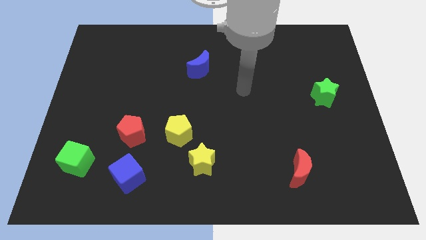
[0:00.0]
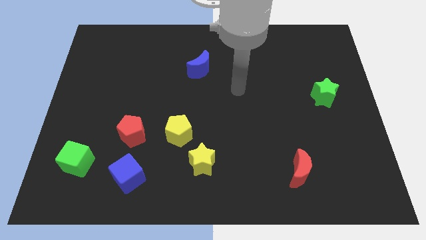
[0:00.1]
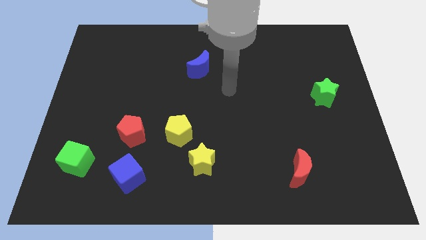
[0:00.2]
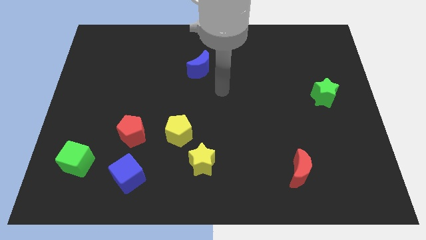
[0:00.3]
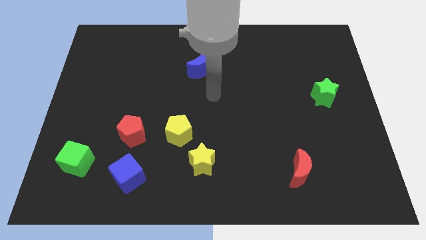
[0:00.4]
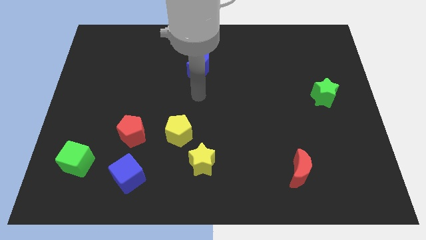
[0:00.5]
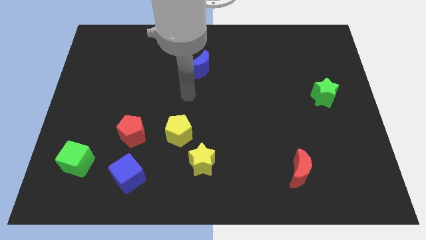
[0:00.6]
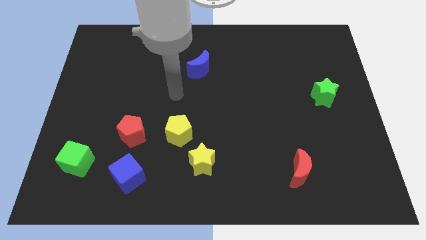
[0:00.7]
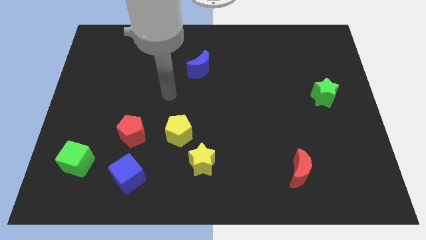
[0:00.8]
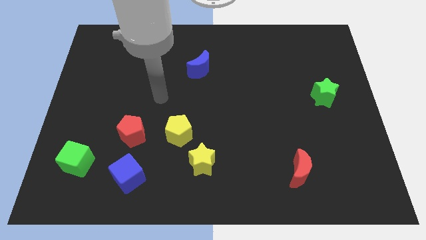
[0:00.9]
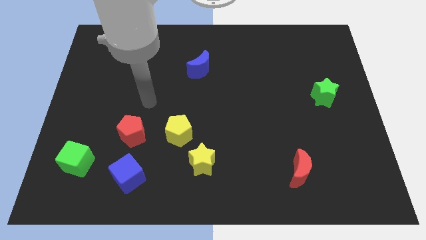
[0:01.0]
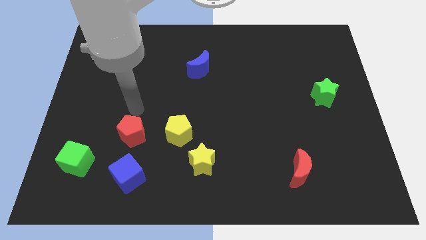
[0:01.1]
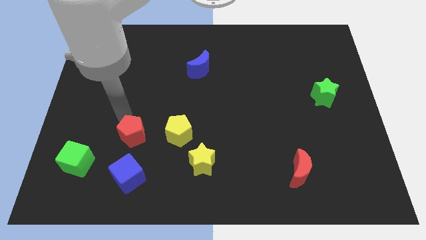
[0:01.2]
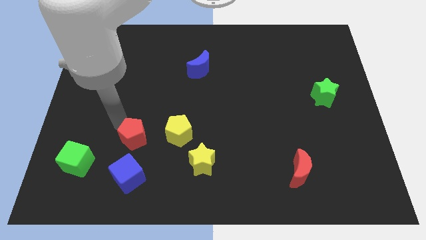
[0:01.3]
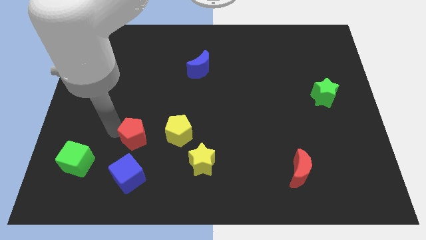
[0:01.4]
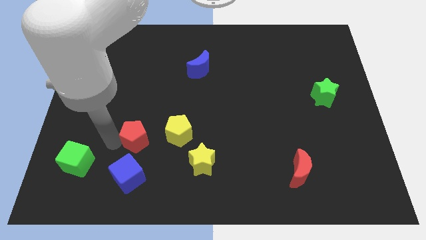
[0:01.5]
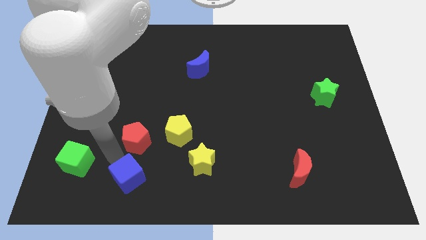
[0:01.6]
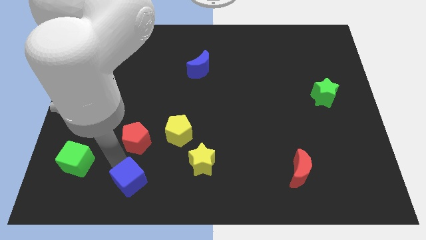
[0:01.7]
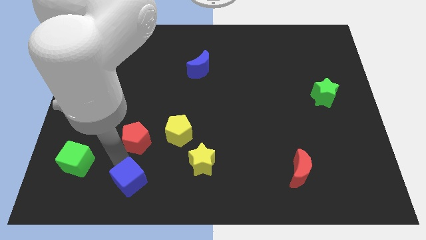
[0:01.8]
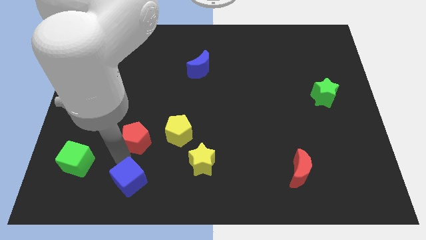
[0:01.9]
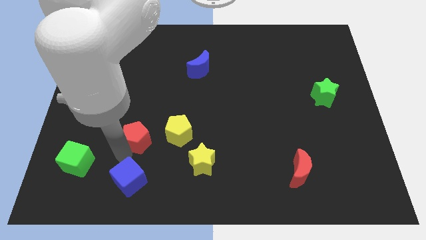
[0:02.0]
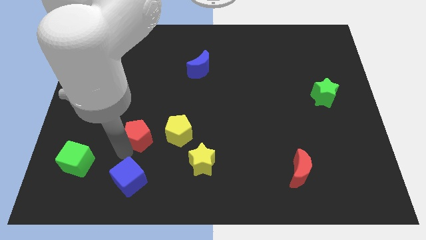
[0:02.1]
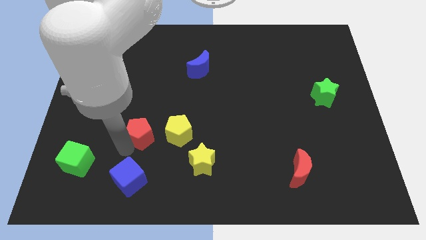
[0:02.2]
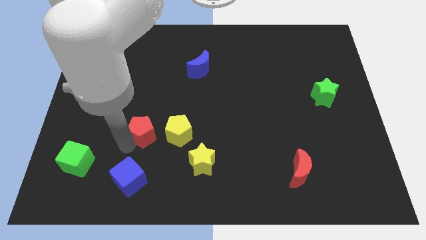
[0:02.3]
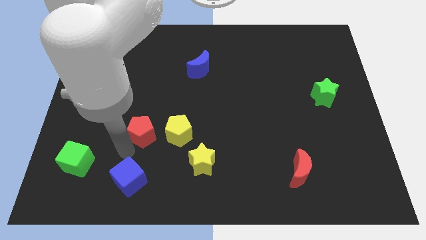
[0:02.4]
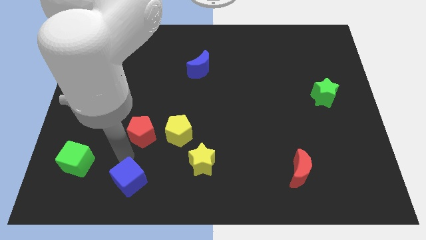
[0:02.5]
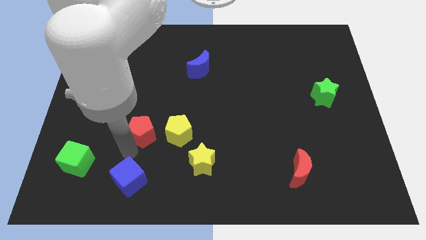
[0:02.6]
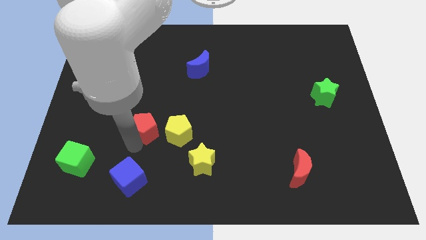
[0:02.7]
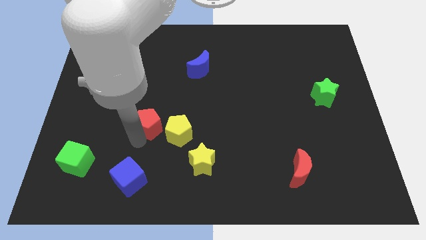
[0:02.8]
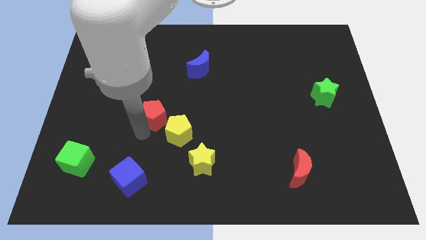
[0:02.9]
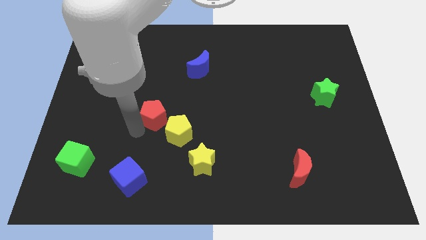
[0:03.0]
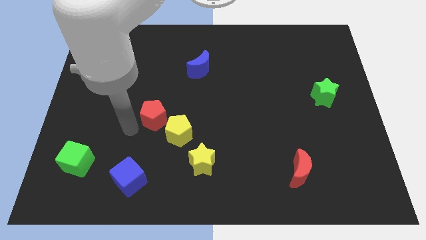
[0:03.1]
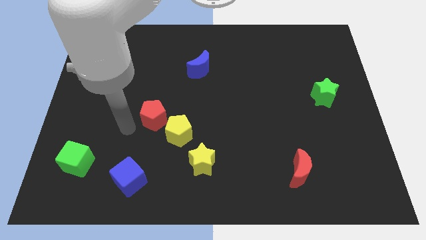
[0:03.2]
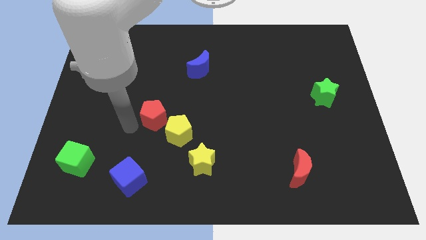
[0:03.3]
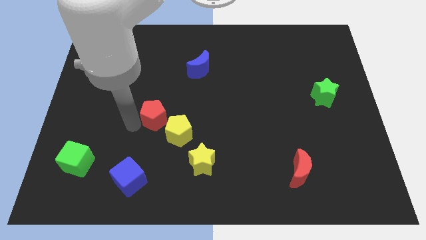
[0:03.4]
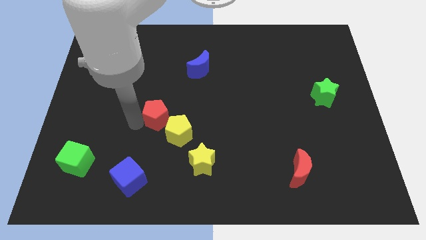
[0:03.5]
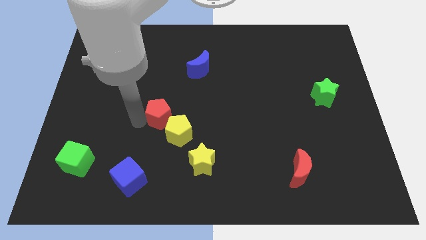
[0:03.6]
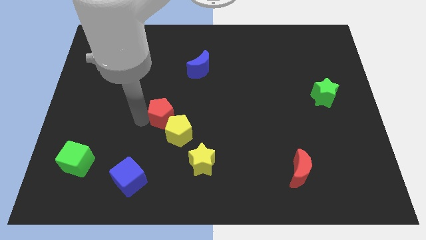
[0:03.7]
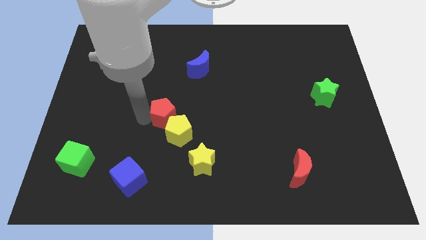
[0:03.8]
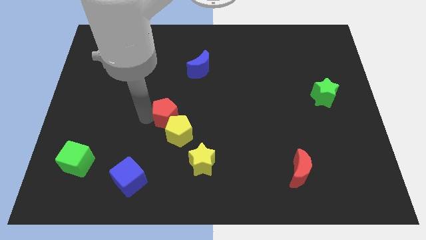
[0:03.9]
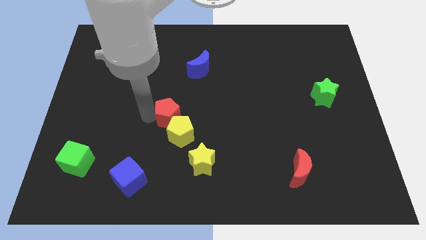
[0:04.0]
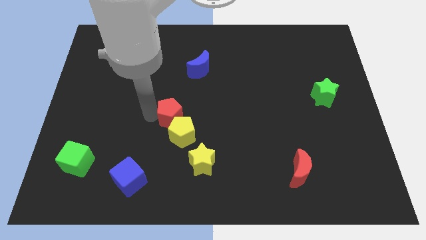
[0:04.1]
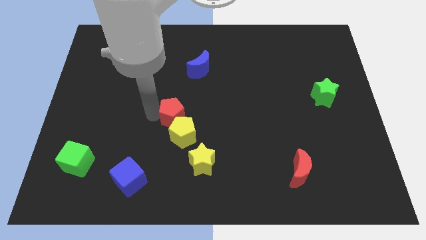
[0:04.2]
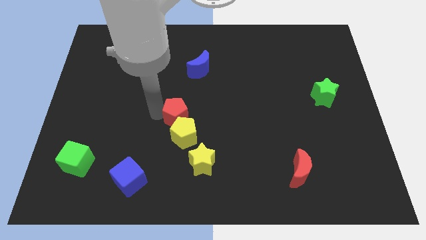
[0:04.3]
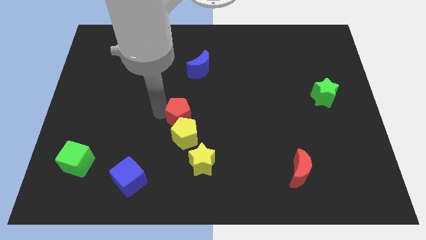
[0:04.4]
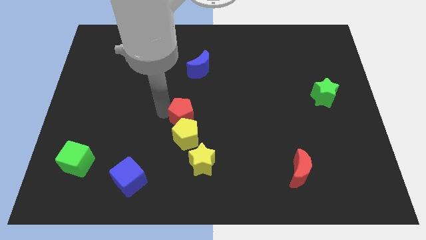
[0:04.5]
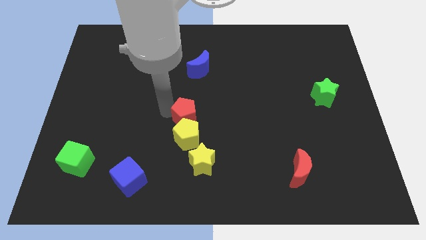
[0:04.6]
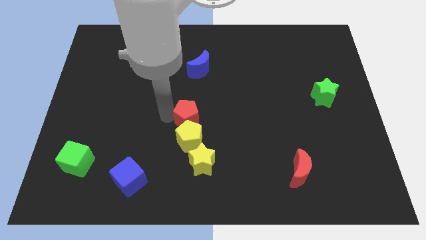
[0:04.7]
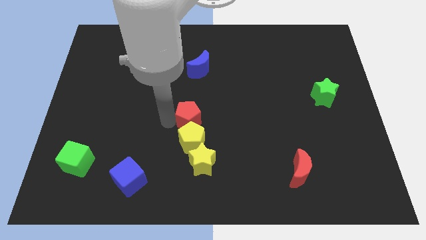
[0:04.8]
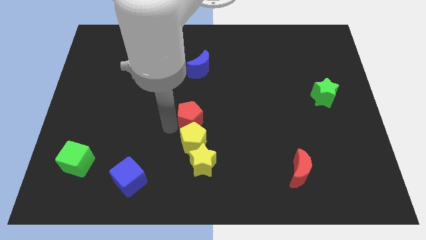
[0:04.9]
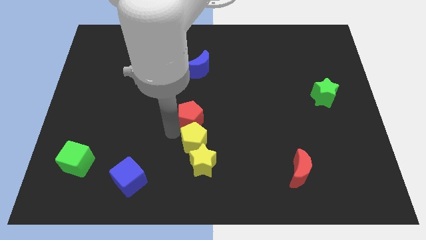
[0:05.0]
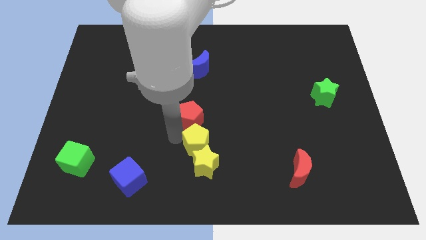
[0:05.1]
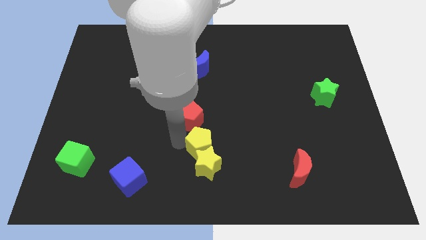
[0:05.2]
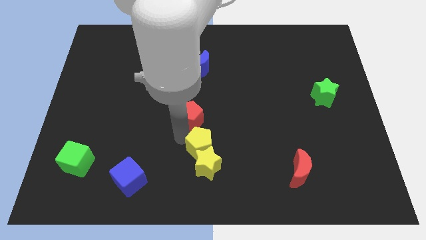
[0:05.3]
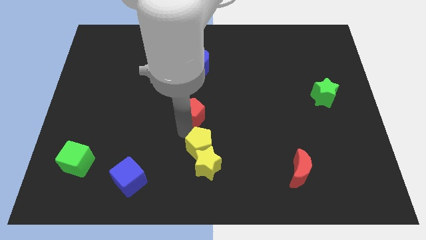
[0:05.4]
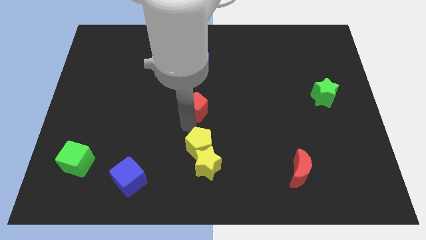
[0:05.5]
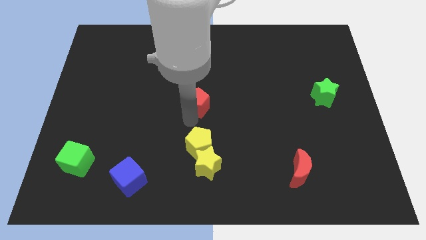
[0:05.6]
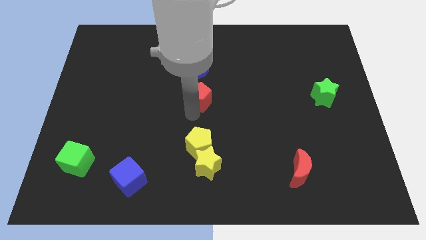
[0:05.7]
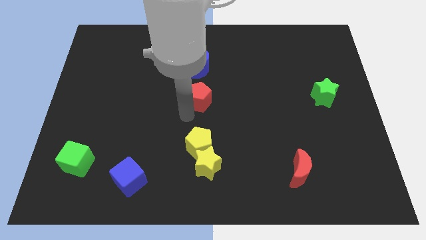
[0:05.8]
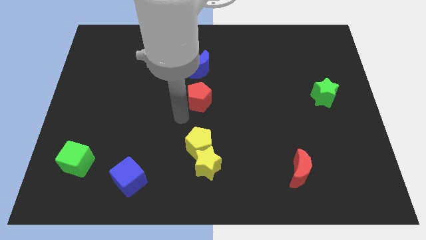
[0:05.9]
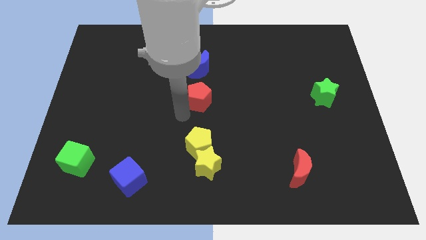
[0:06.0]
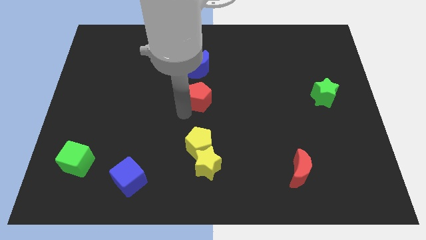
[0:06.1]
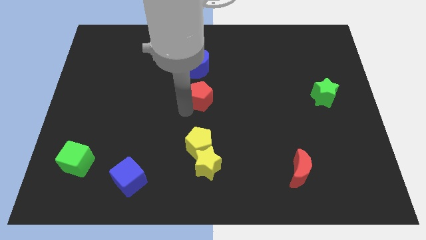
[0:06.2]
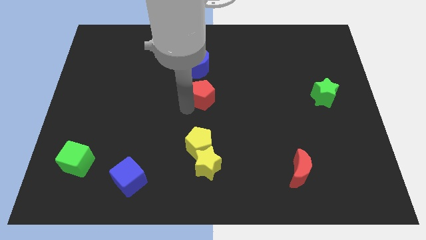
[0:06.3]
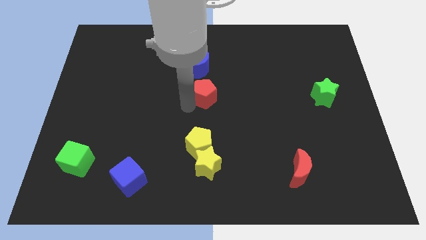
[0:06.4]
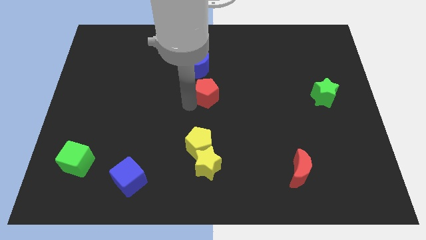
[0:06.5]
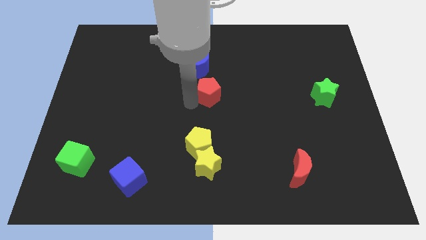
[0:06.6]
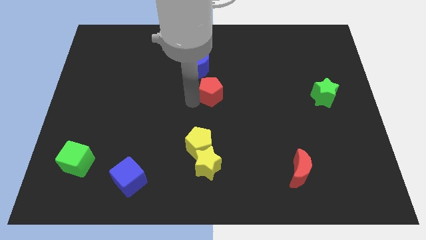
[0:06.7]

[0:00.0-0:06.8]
move the red pentagon up and then to the right

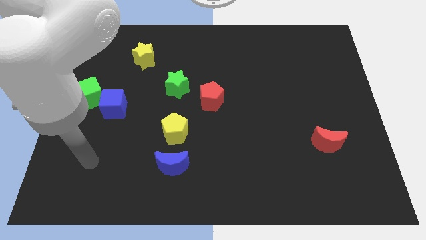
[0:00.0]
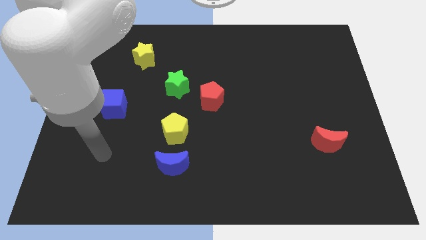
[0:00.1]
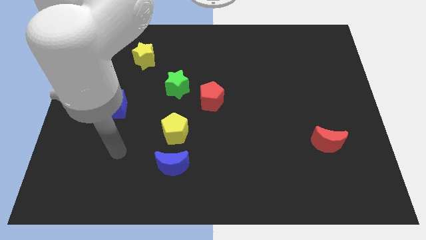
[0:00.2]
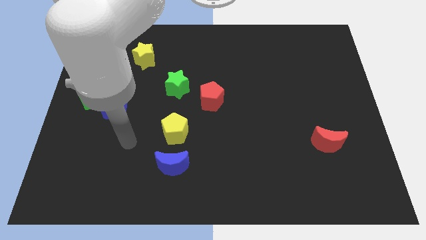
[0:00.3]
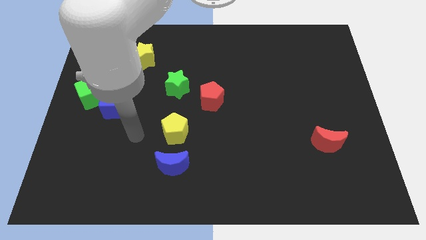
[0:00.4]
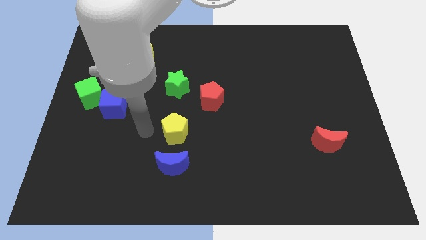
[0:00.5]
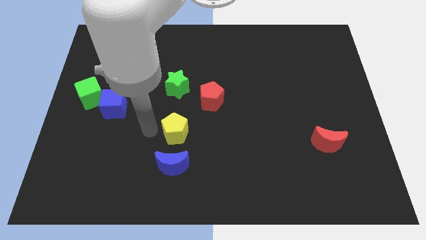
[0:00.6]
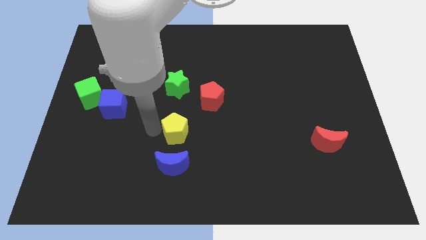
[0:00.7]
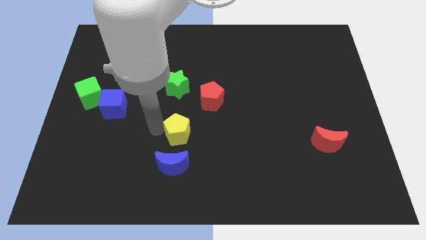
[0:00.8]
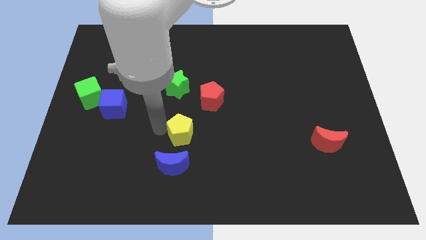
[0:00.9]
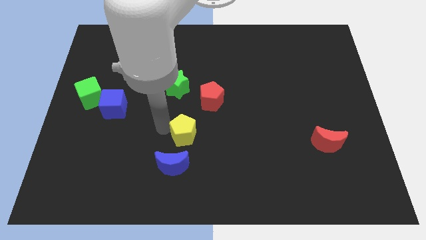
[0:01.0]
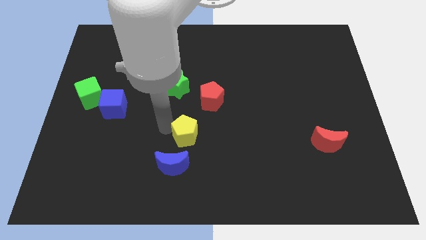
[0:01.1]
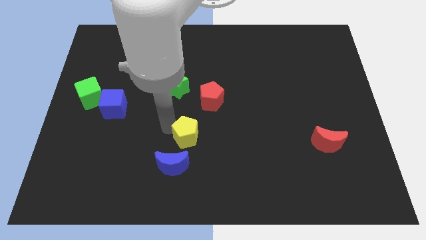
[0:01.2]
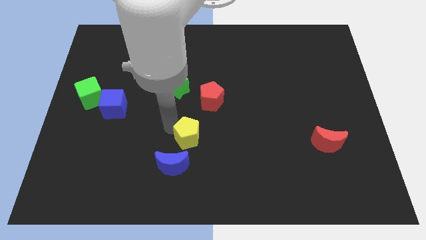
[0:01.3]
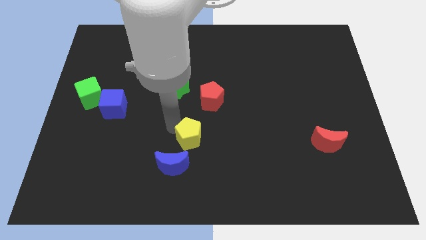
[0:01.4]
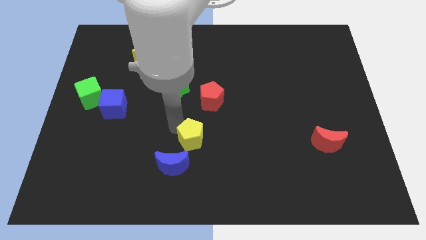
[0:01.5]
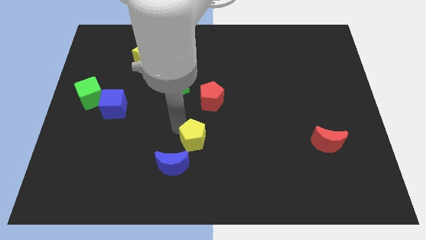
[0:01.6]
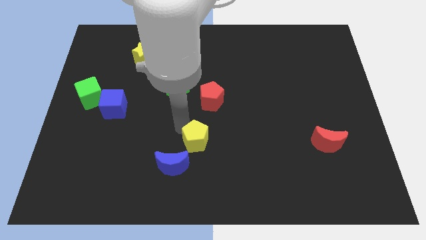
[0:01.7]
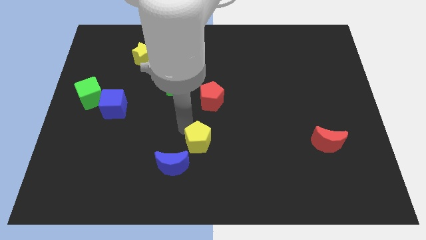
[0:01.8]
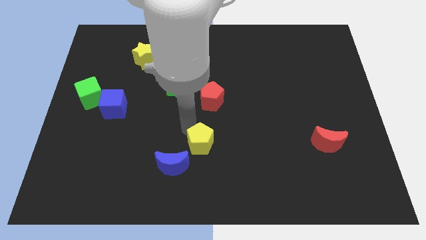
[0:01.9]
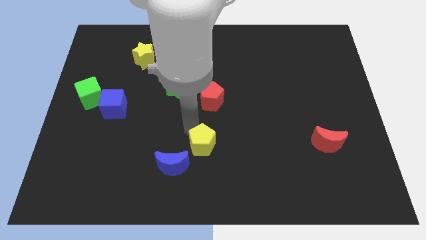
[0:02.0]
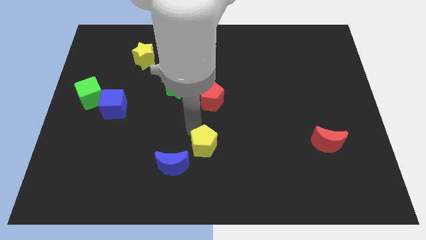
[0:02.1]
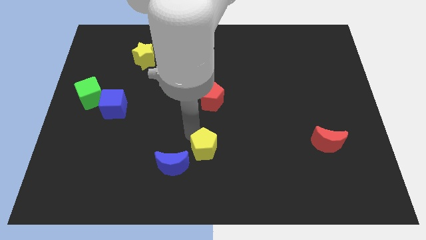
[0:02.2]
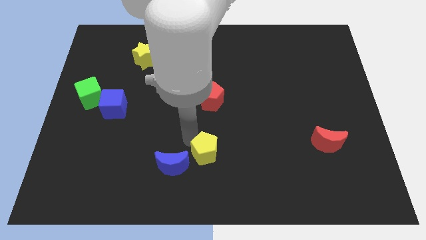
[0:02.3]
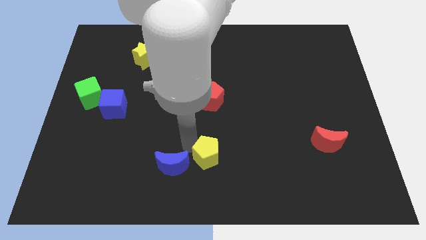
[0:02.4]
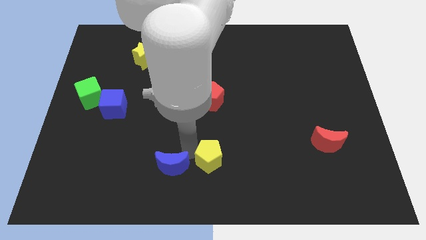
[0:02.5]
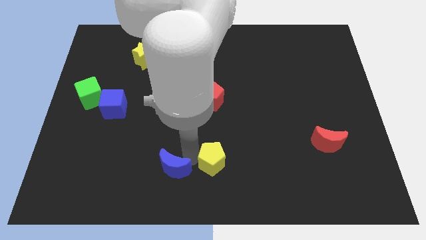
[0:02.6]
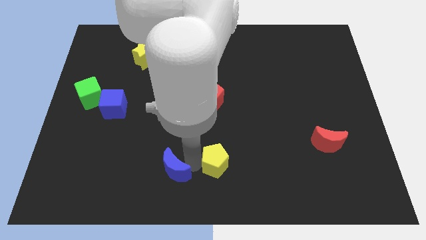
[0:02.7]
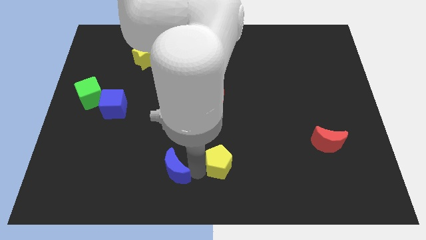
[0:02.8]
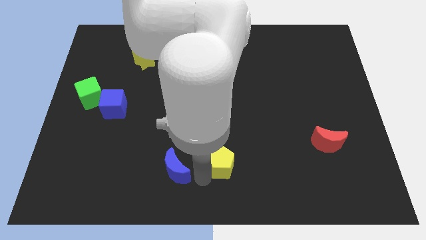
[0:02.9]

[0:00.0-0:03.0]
push the yellow pentagon somewhat to the right
